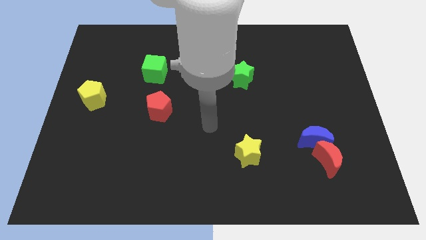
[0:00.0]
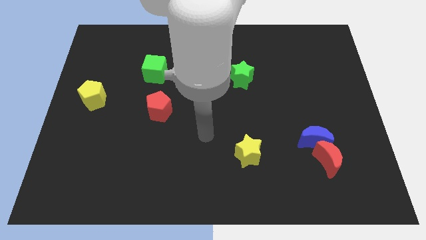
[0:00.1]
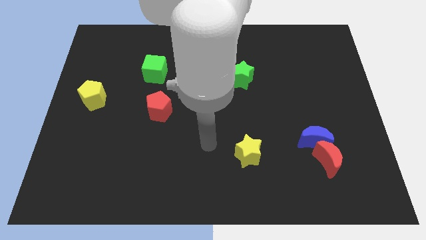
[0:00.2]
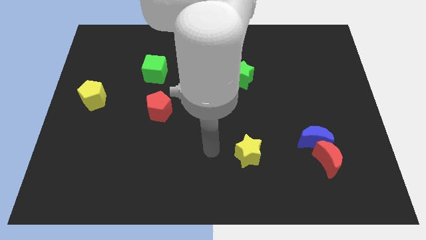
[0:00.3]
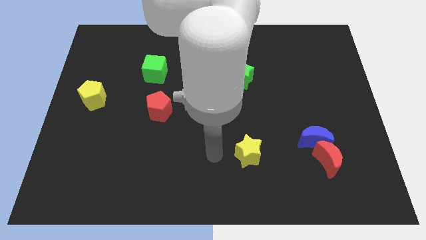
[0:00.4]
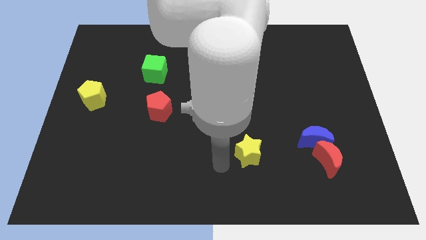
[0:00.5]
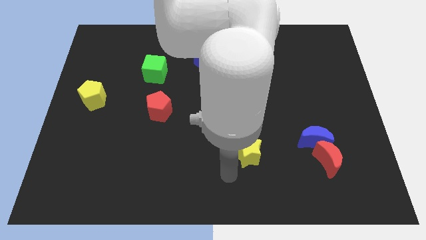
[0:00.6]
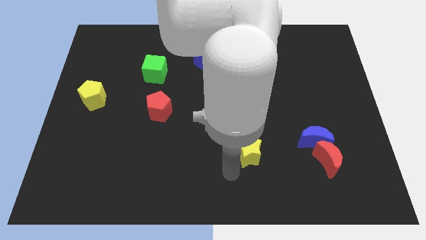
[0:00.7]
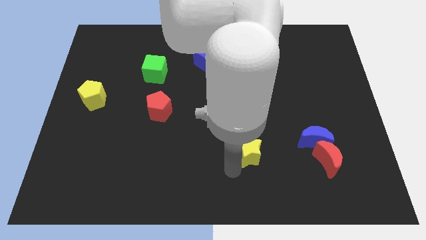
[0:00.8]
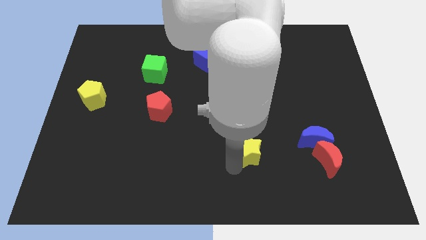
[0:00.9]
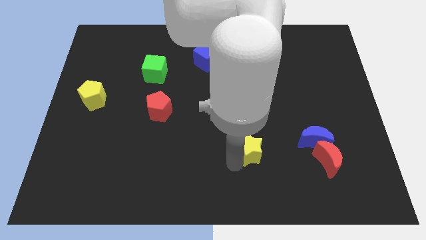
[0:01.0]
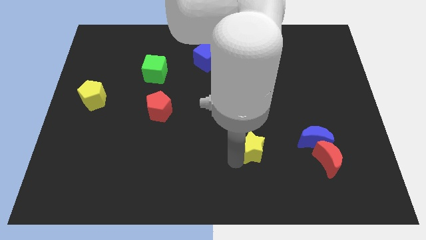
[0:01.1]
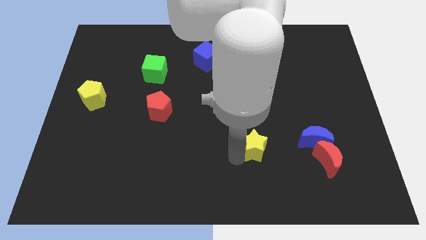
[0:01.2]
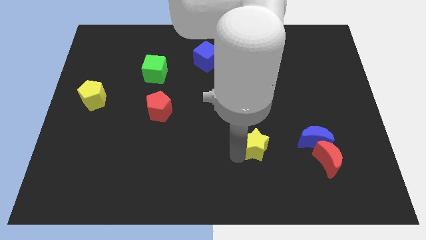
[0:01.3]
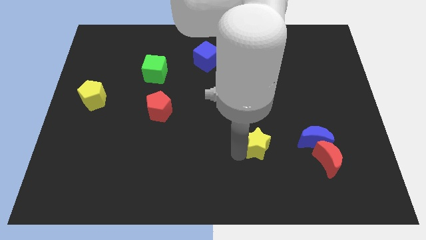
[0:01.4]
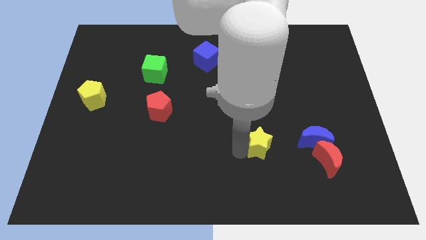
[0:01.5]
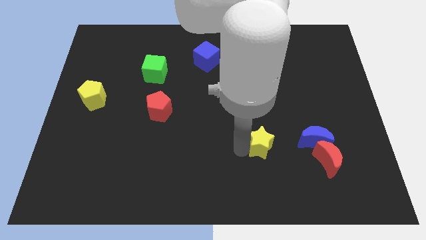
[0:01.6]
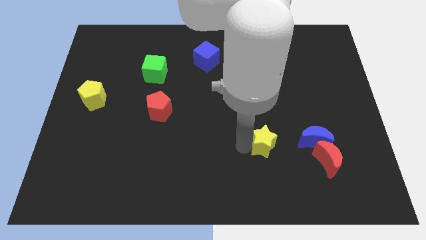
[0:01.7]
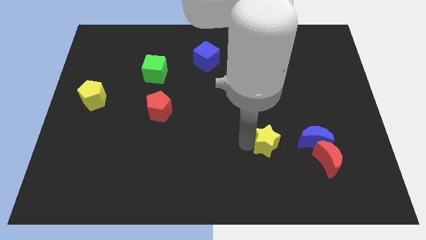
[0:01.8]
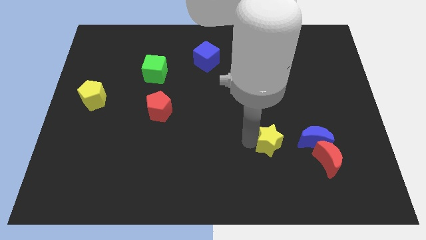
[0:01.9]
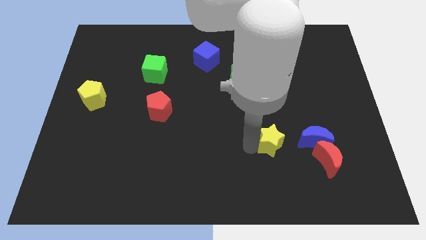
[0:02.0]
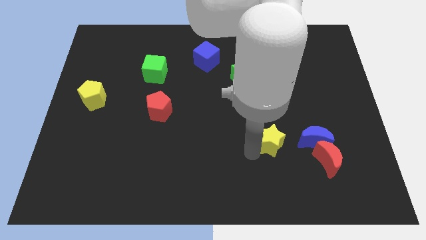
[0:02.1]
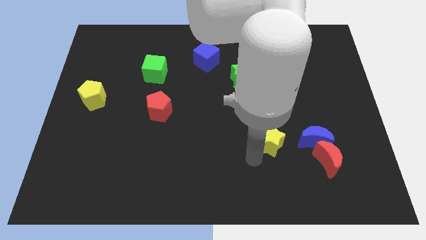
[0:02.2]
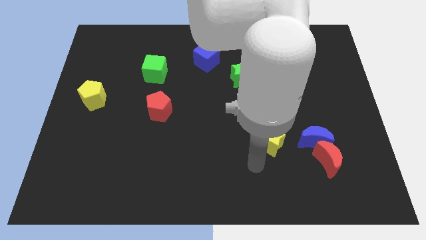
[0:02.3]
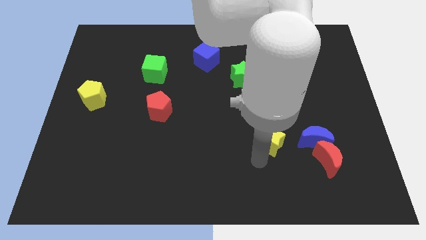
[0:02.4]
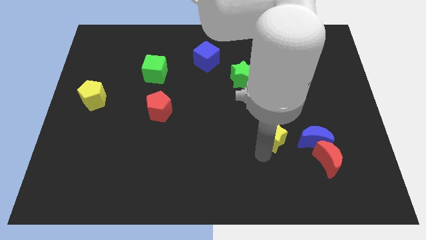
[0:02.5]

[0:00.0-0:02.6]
slightly push the yellow star up and then right

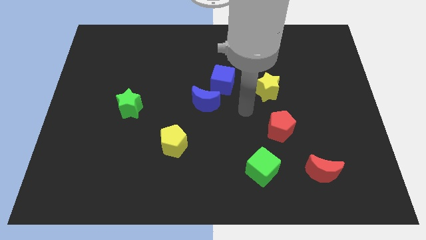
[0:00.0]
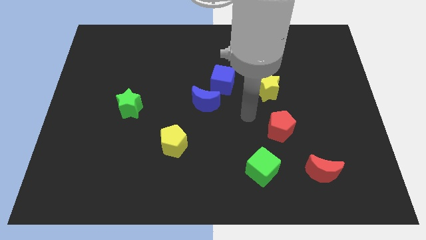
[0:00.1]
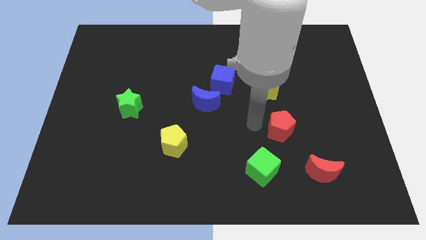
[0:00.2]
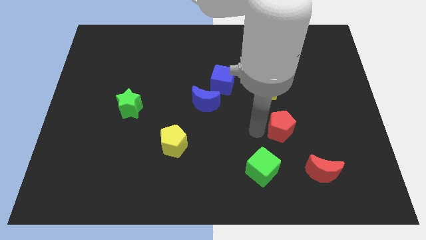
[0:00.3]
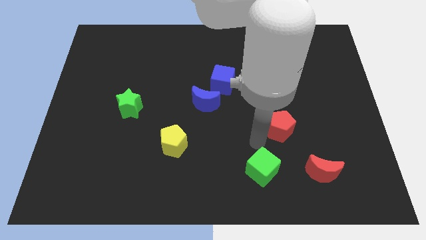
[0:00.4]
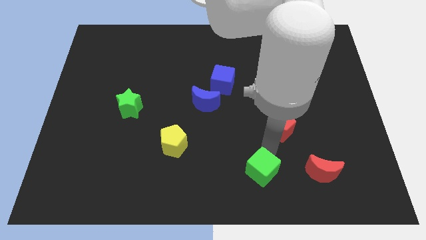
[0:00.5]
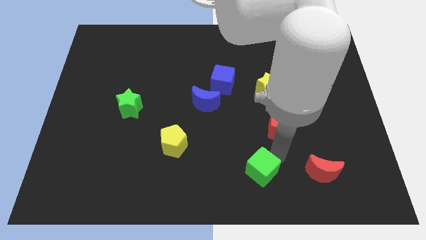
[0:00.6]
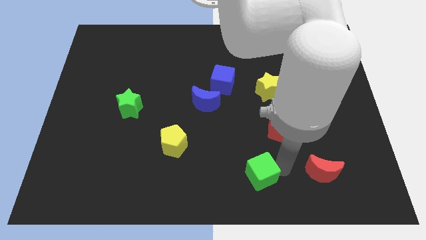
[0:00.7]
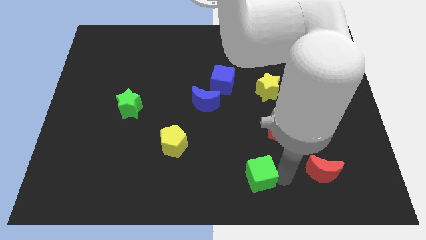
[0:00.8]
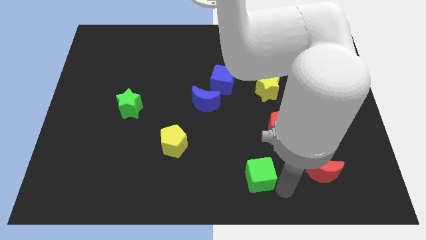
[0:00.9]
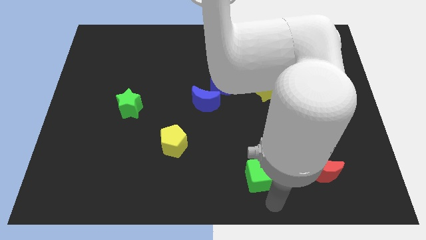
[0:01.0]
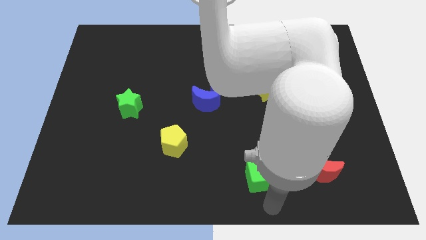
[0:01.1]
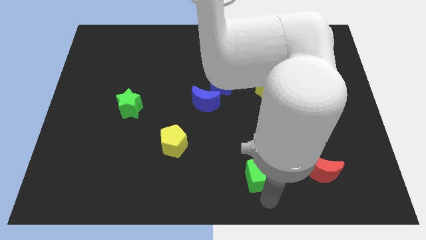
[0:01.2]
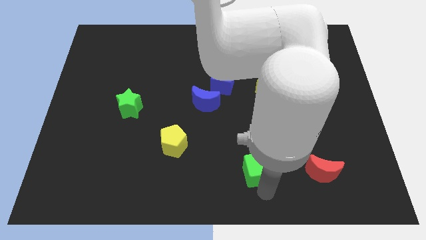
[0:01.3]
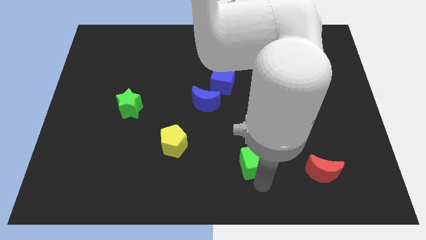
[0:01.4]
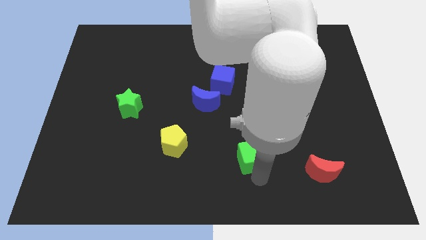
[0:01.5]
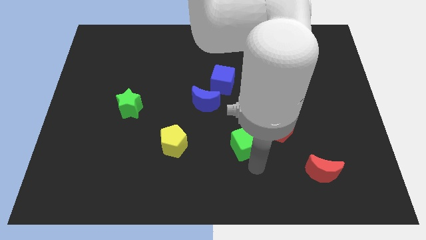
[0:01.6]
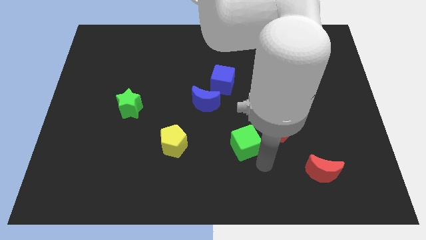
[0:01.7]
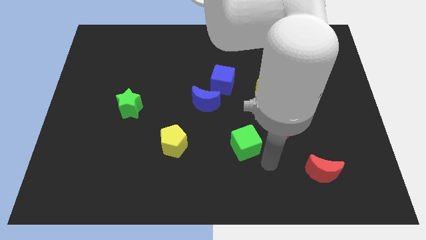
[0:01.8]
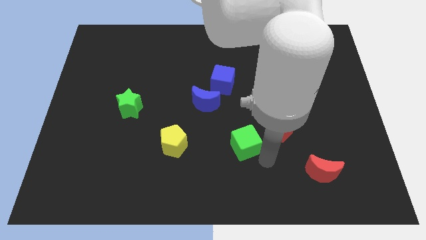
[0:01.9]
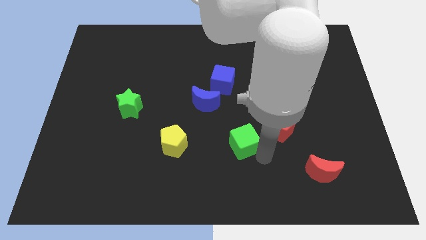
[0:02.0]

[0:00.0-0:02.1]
slide the green cube up and to the left somewhat

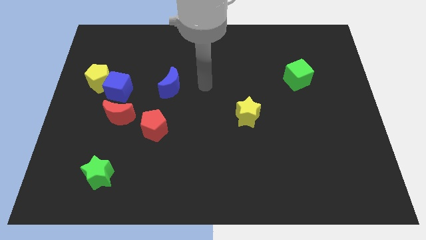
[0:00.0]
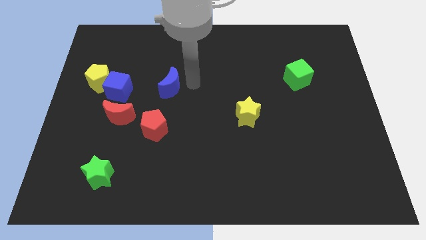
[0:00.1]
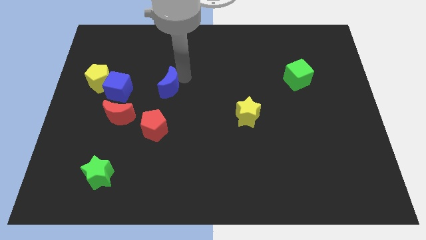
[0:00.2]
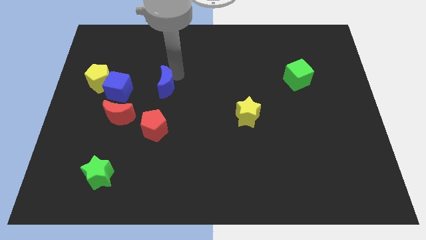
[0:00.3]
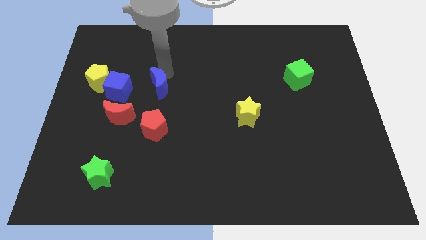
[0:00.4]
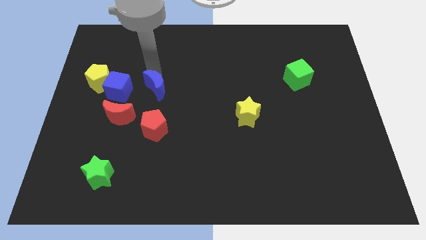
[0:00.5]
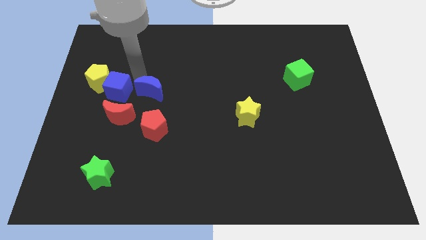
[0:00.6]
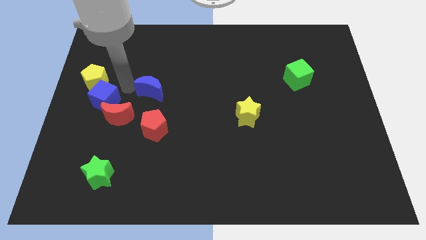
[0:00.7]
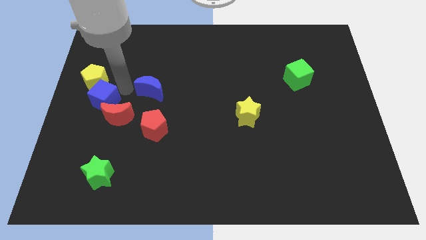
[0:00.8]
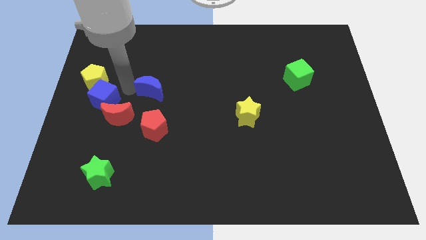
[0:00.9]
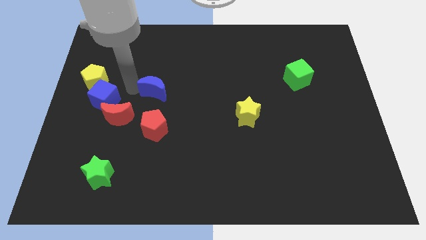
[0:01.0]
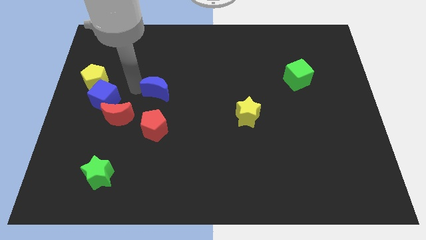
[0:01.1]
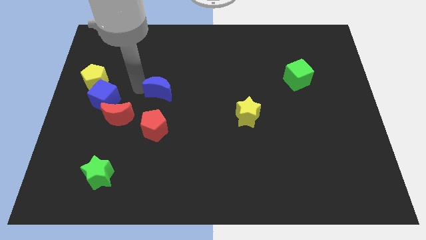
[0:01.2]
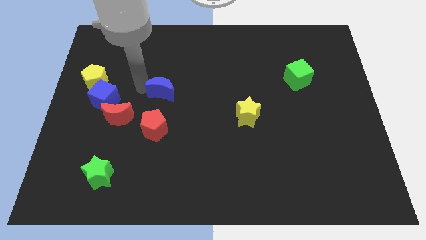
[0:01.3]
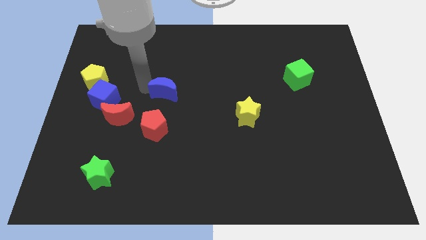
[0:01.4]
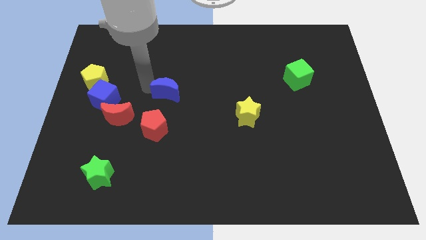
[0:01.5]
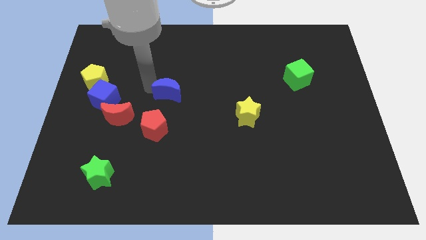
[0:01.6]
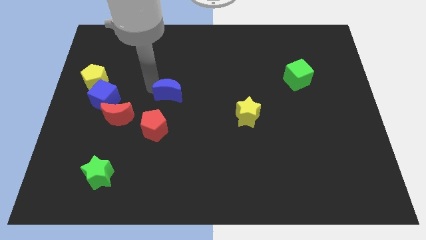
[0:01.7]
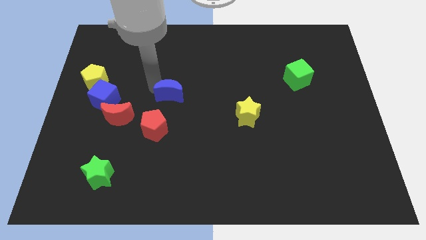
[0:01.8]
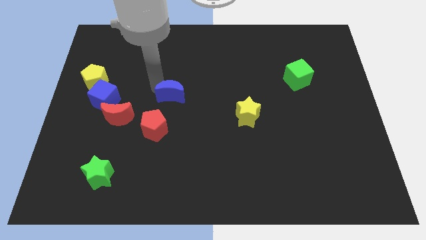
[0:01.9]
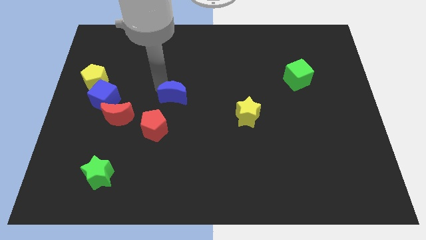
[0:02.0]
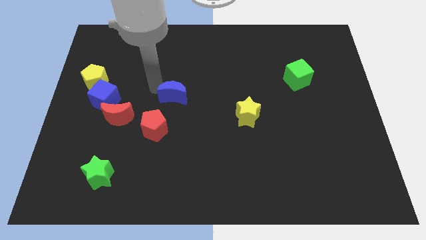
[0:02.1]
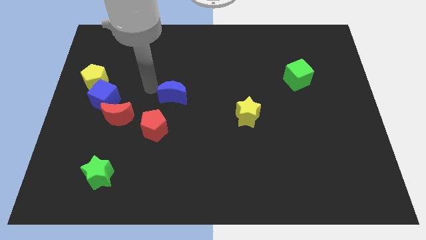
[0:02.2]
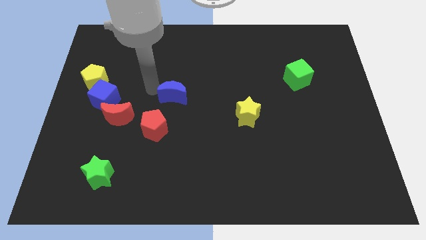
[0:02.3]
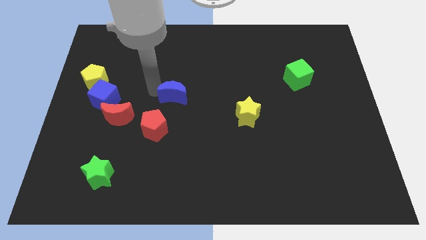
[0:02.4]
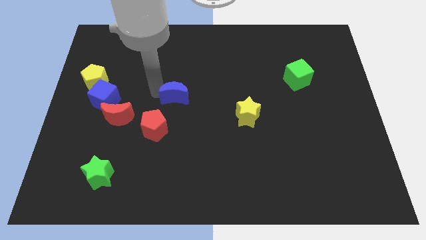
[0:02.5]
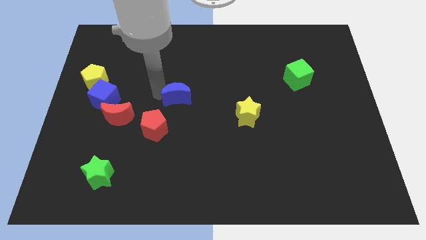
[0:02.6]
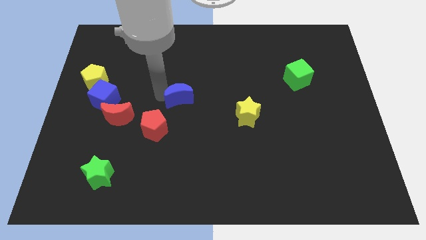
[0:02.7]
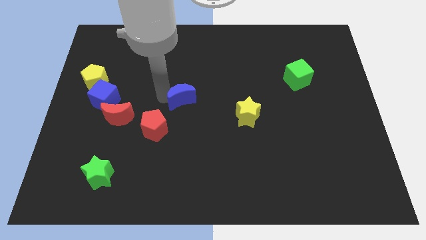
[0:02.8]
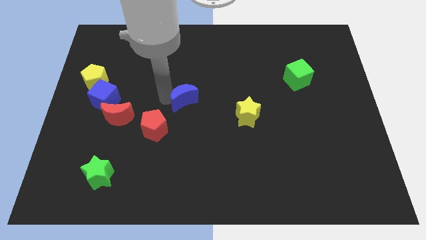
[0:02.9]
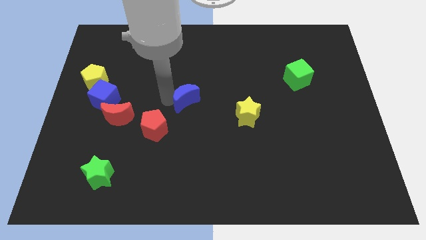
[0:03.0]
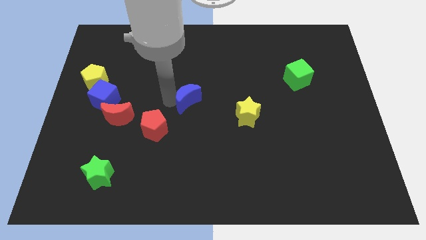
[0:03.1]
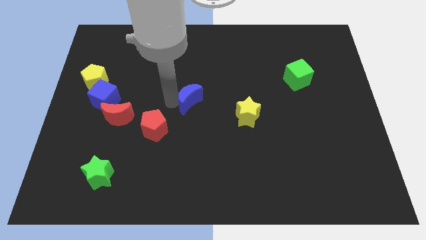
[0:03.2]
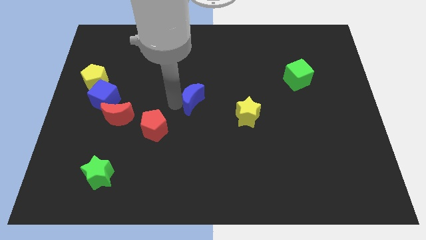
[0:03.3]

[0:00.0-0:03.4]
move the blue moon a little downwards and then right
